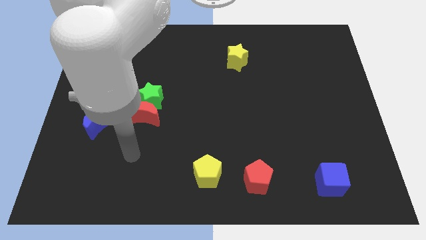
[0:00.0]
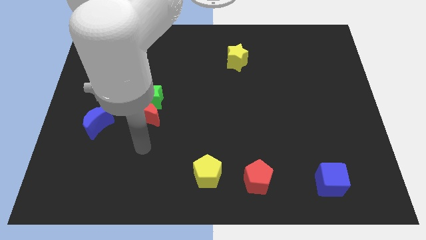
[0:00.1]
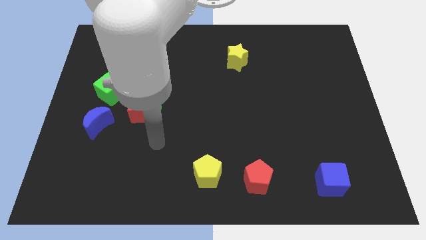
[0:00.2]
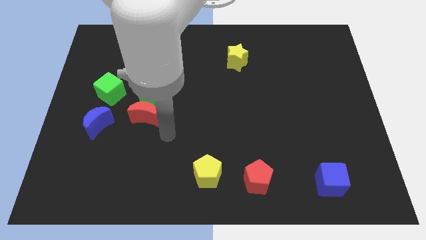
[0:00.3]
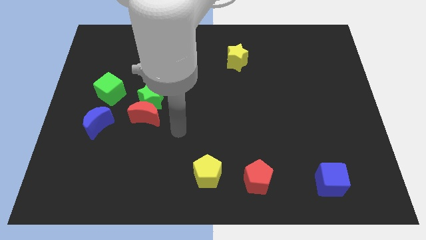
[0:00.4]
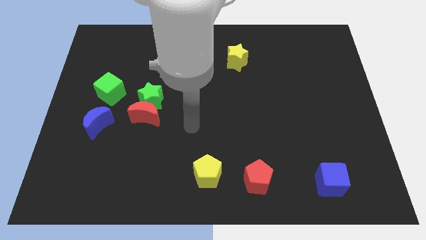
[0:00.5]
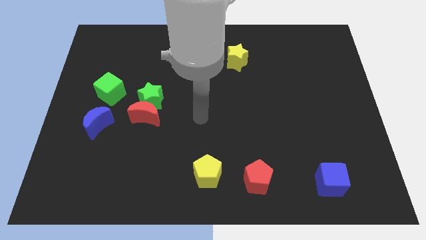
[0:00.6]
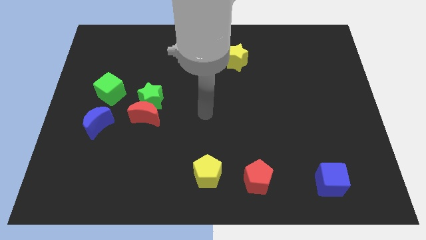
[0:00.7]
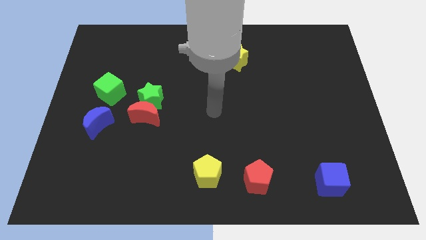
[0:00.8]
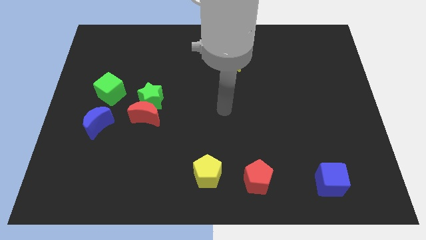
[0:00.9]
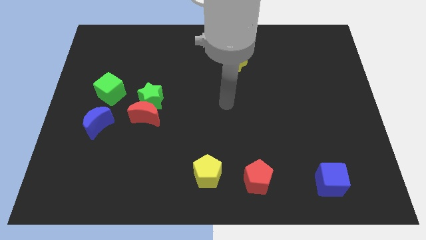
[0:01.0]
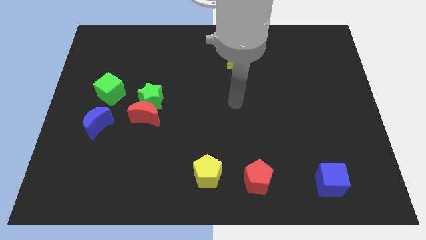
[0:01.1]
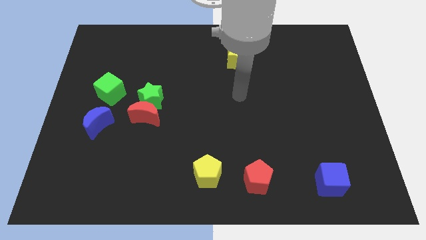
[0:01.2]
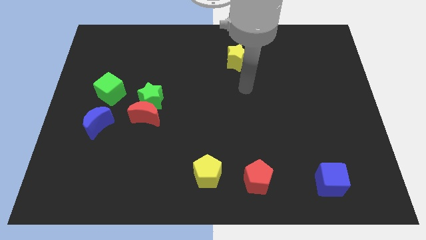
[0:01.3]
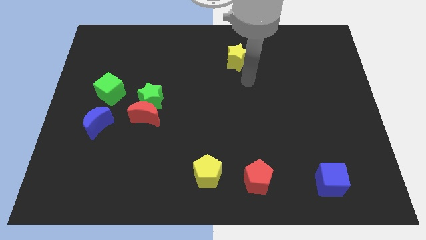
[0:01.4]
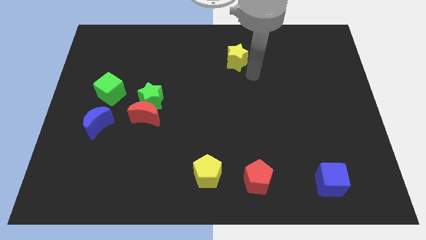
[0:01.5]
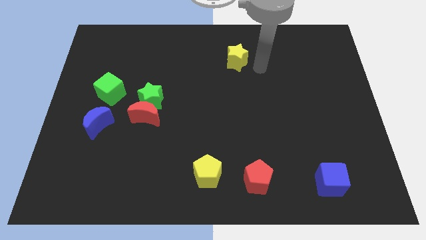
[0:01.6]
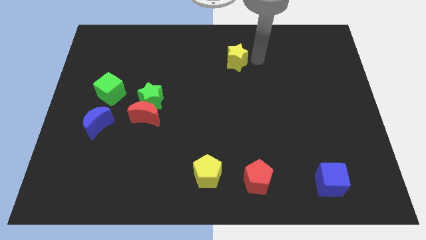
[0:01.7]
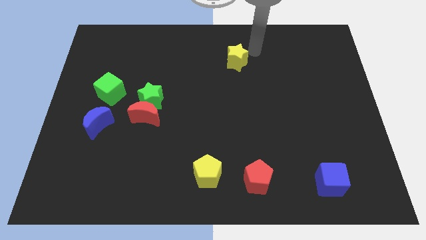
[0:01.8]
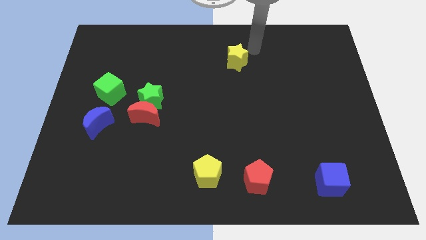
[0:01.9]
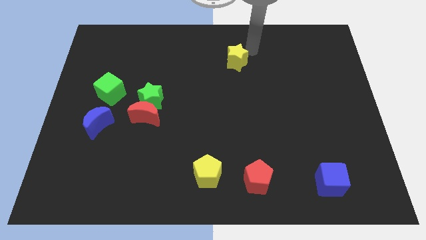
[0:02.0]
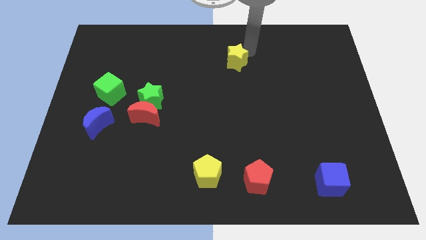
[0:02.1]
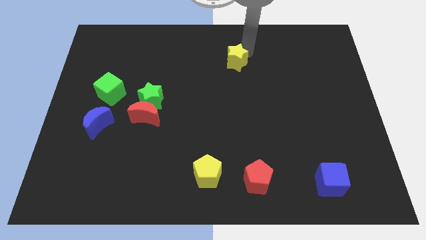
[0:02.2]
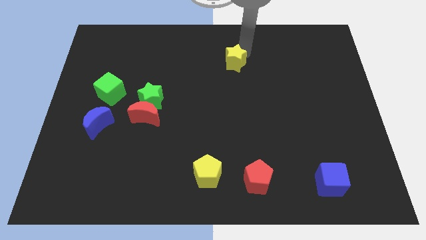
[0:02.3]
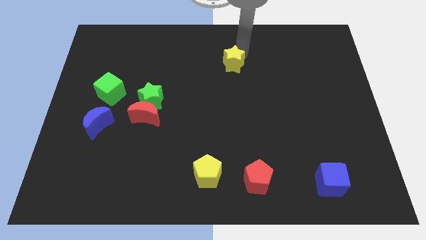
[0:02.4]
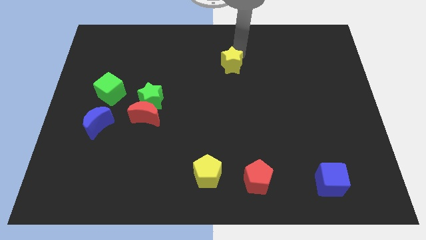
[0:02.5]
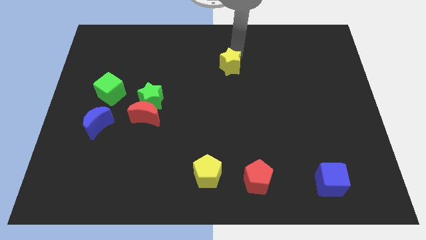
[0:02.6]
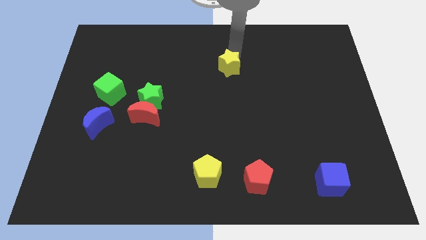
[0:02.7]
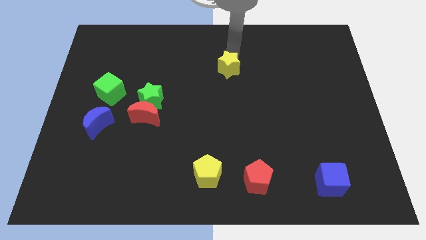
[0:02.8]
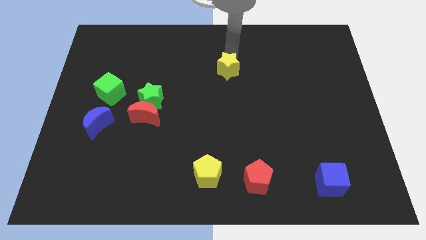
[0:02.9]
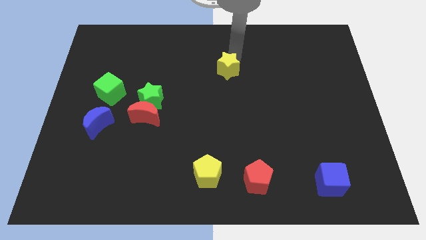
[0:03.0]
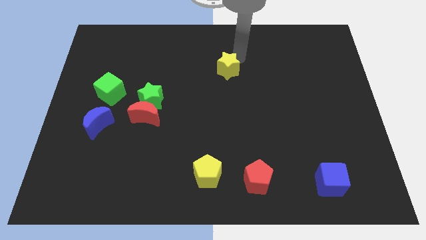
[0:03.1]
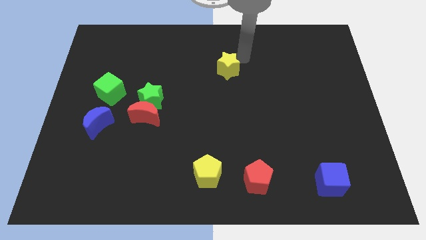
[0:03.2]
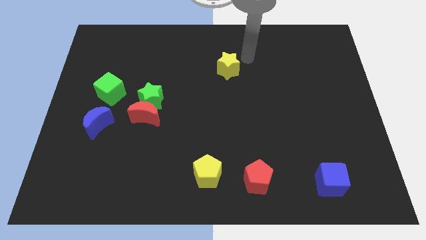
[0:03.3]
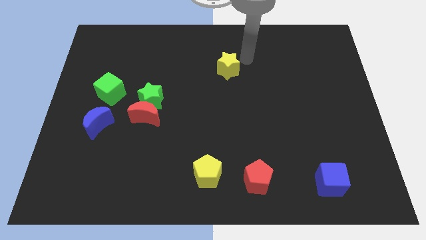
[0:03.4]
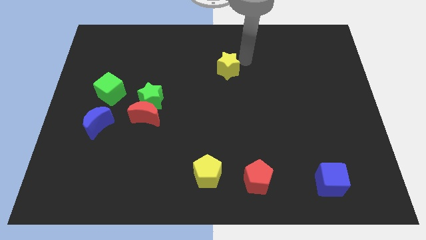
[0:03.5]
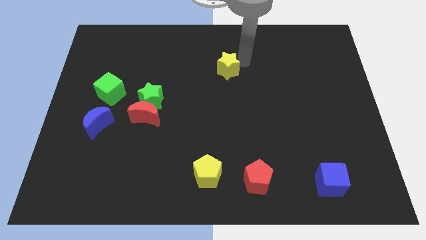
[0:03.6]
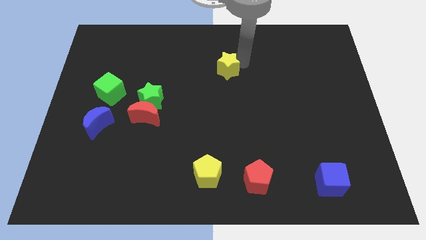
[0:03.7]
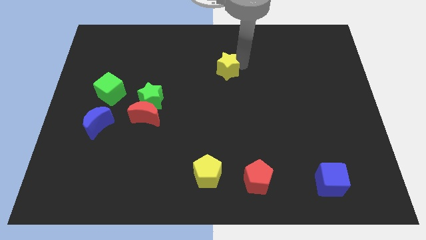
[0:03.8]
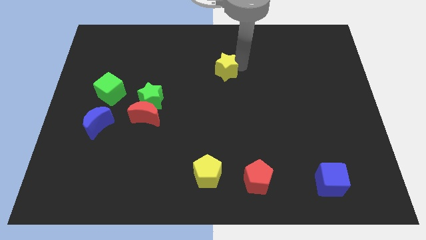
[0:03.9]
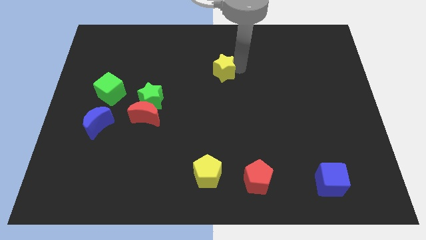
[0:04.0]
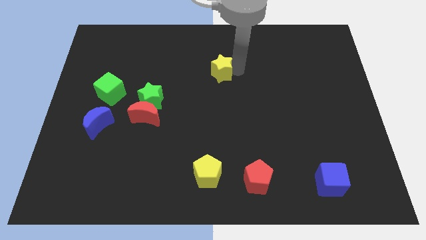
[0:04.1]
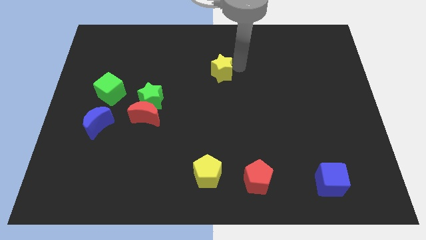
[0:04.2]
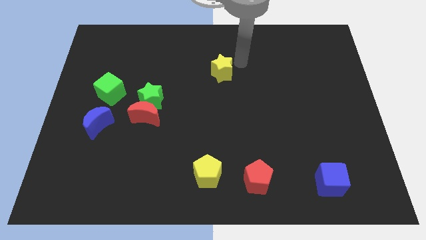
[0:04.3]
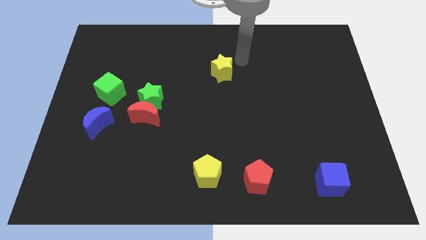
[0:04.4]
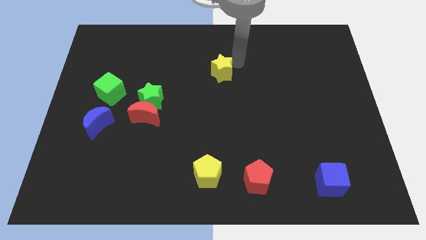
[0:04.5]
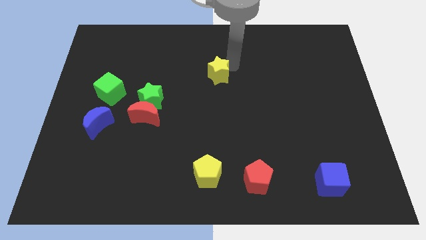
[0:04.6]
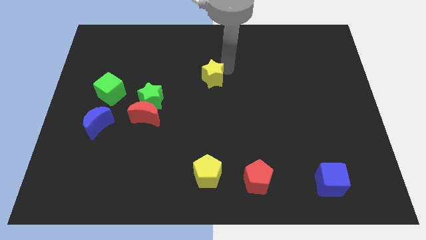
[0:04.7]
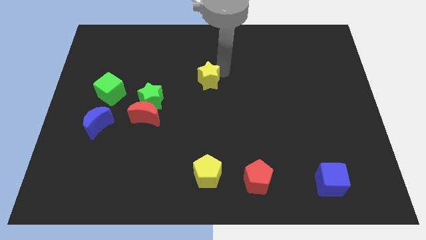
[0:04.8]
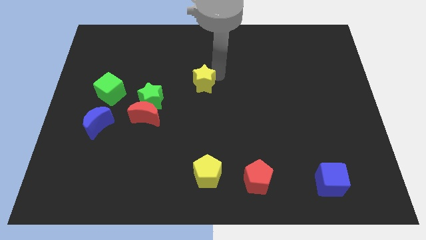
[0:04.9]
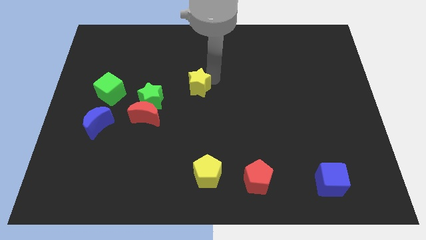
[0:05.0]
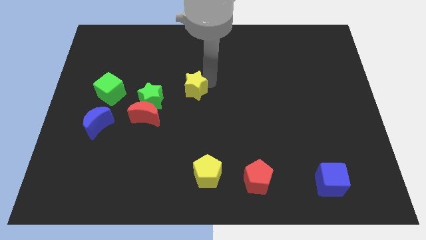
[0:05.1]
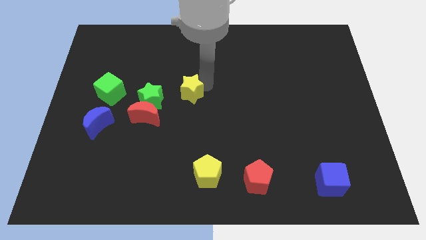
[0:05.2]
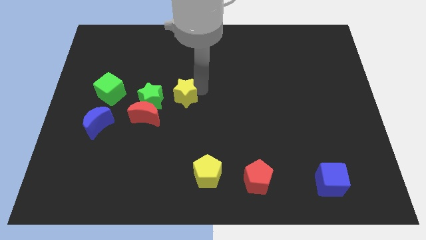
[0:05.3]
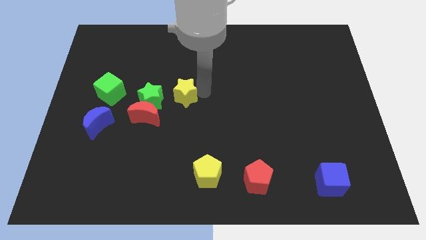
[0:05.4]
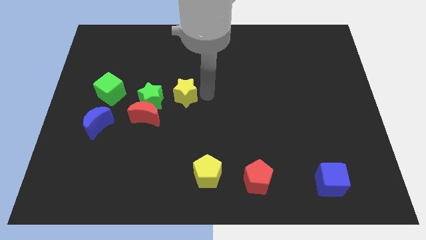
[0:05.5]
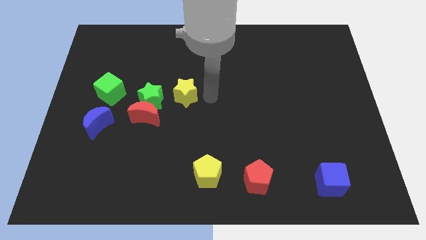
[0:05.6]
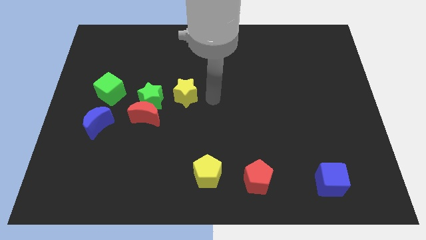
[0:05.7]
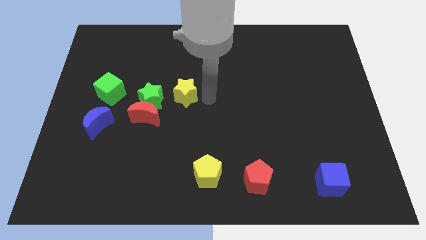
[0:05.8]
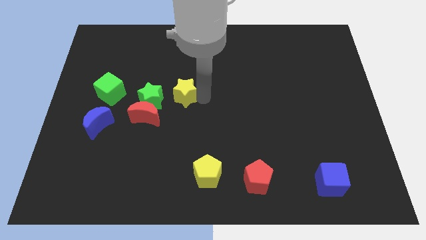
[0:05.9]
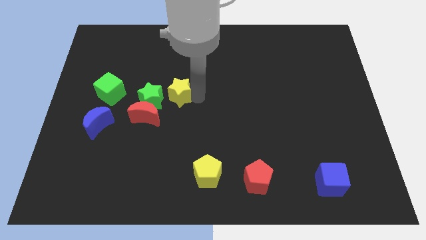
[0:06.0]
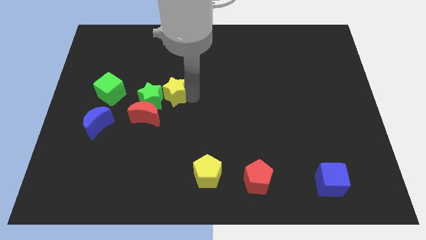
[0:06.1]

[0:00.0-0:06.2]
put the yellow star close to the green star

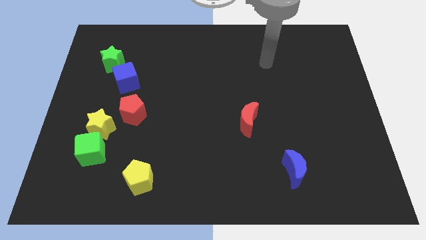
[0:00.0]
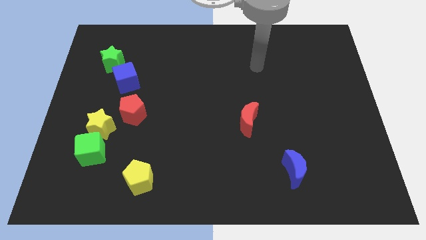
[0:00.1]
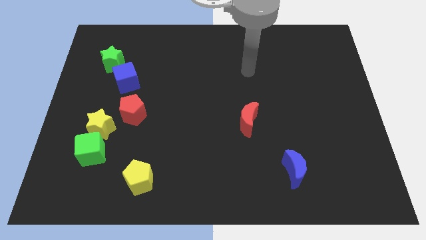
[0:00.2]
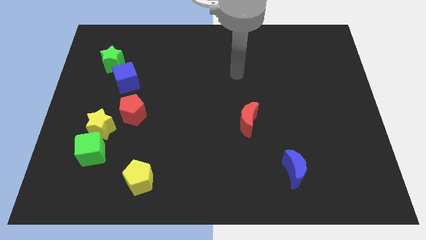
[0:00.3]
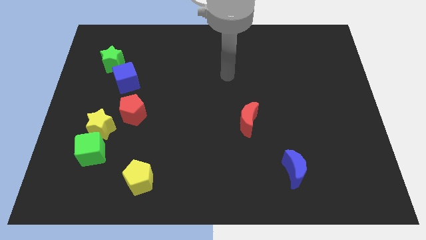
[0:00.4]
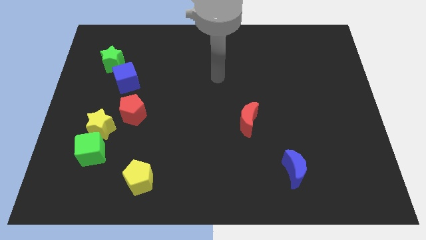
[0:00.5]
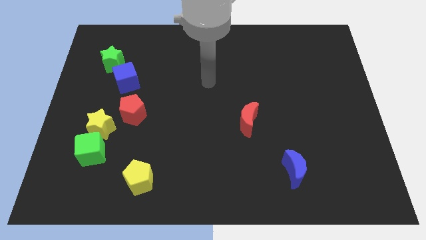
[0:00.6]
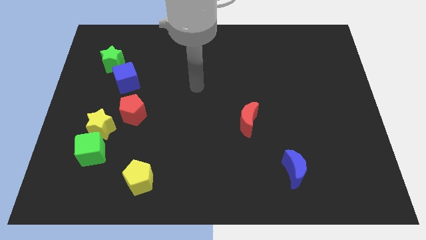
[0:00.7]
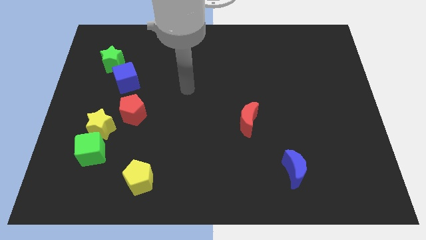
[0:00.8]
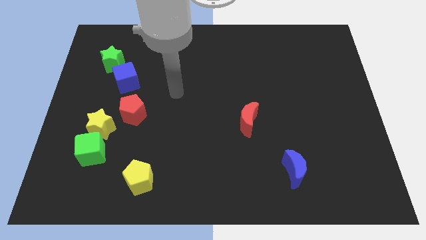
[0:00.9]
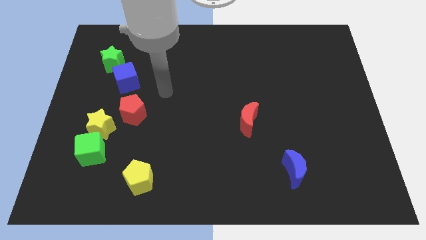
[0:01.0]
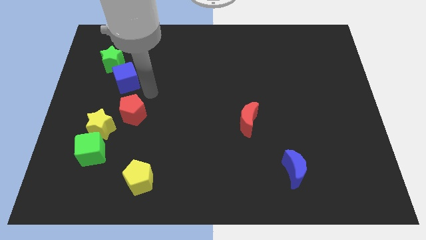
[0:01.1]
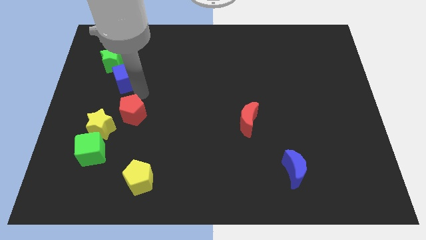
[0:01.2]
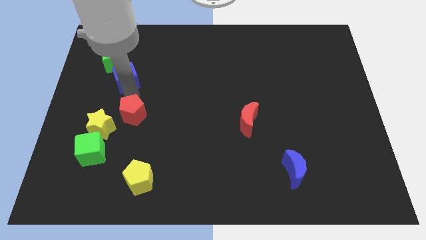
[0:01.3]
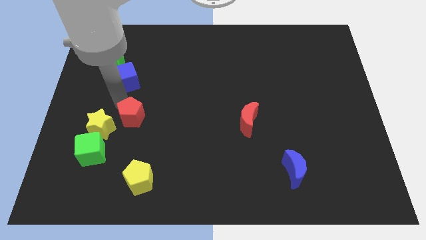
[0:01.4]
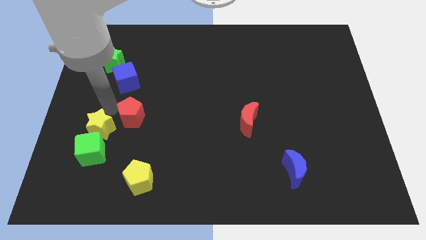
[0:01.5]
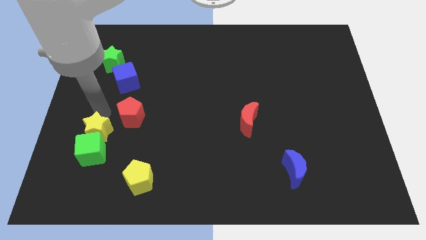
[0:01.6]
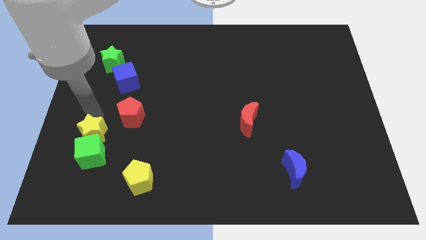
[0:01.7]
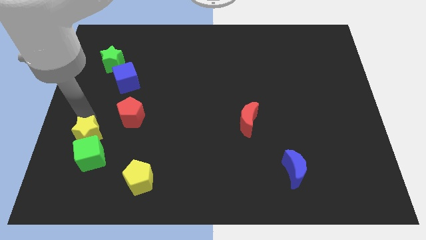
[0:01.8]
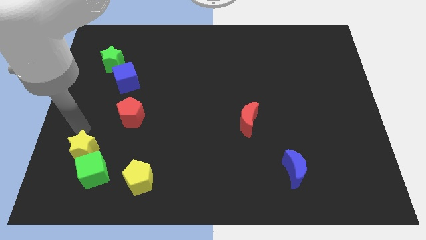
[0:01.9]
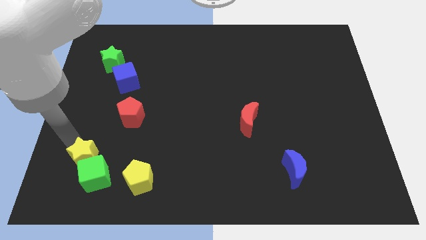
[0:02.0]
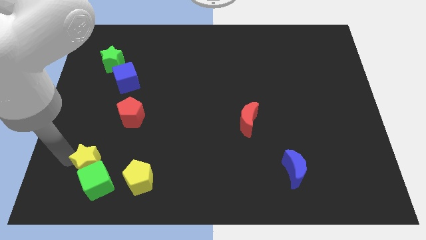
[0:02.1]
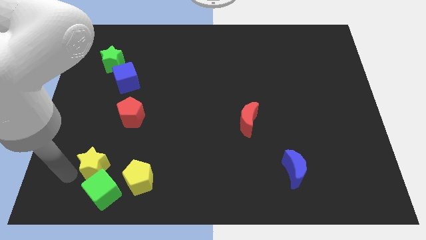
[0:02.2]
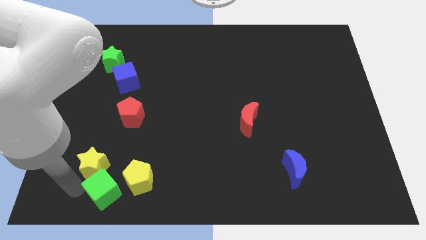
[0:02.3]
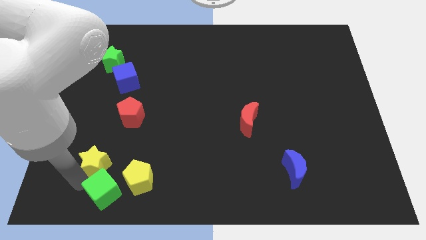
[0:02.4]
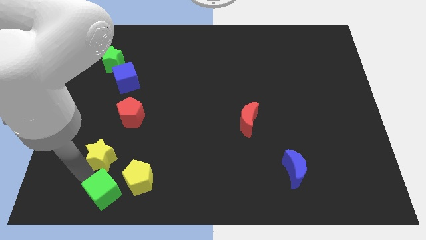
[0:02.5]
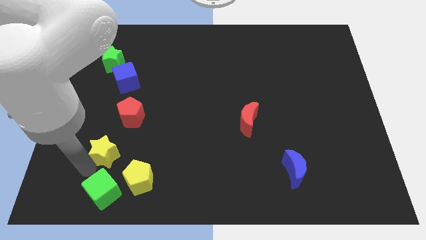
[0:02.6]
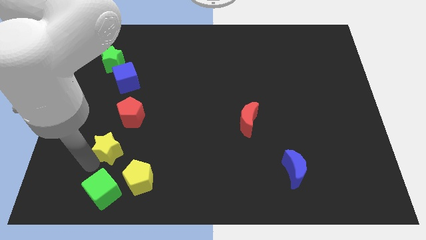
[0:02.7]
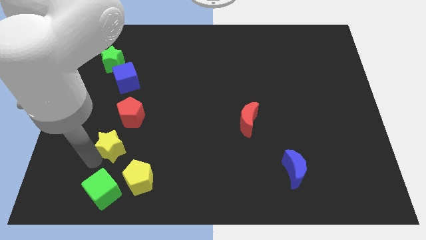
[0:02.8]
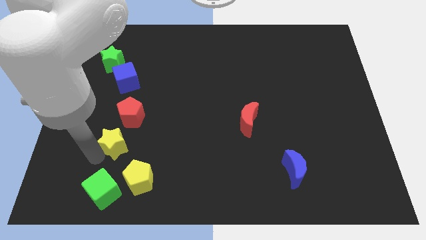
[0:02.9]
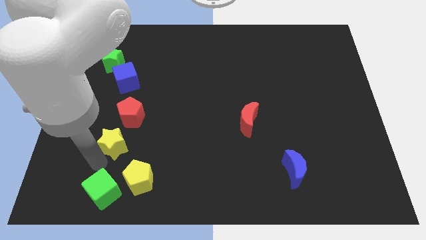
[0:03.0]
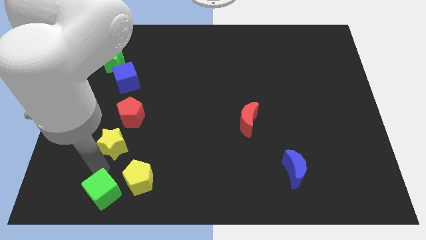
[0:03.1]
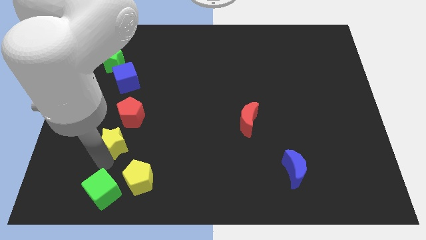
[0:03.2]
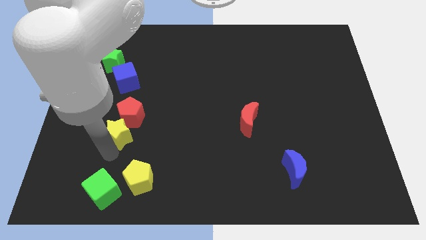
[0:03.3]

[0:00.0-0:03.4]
move the yellow star close to the red pentagon
